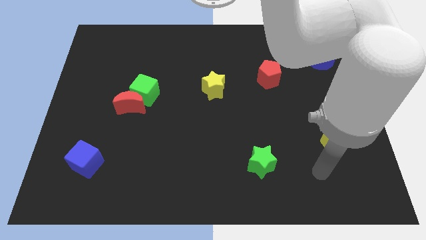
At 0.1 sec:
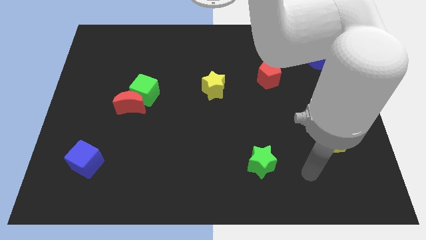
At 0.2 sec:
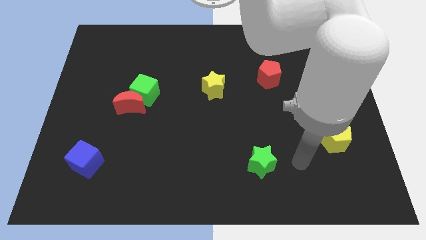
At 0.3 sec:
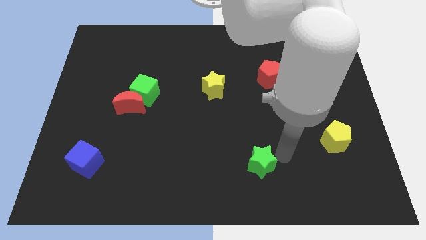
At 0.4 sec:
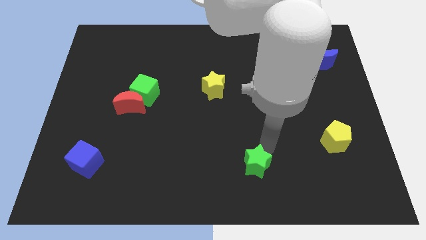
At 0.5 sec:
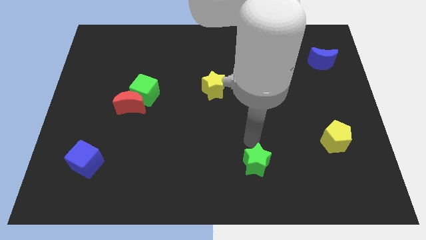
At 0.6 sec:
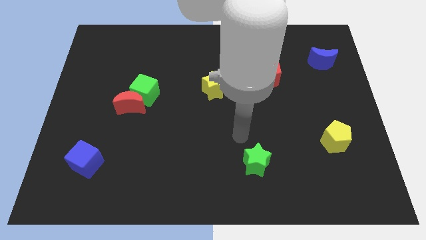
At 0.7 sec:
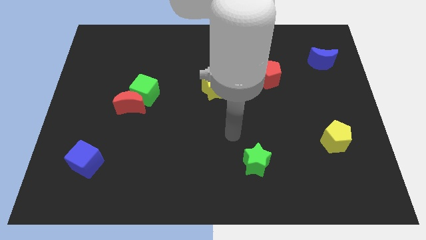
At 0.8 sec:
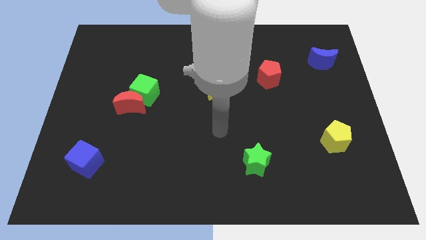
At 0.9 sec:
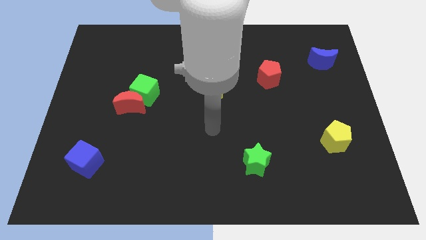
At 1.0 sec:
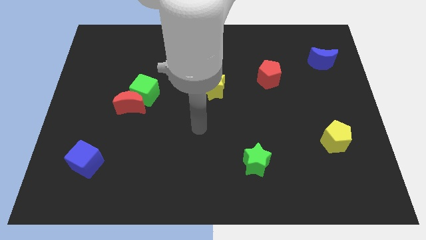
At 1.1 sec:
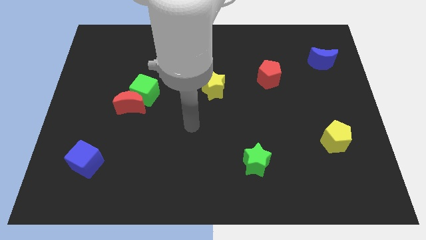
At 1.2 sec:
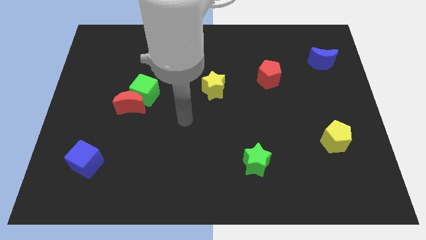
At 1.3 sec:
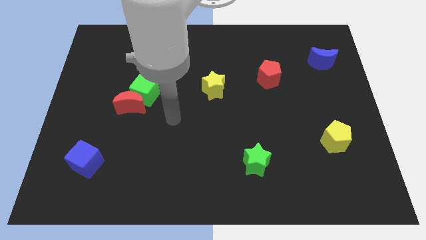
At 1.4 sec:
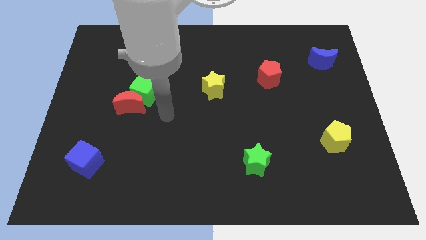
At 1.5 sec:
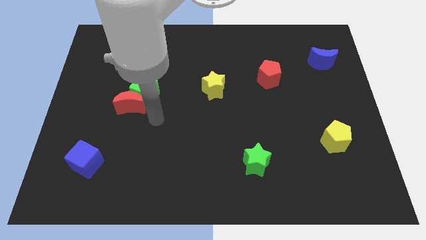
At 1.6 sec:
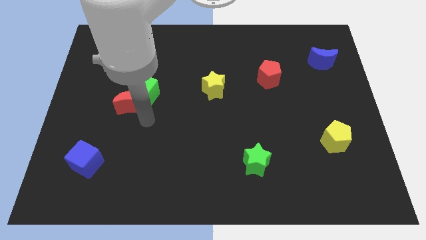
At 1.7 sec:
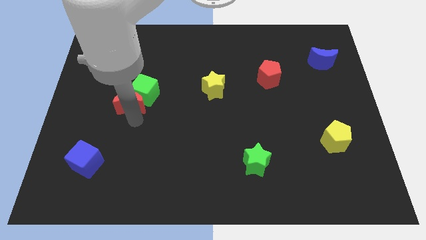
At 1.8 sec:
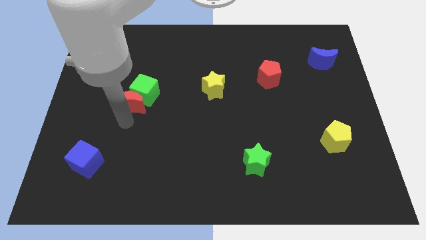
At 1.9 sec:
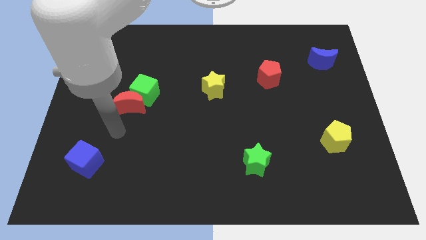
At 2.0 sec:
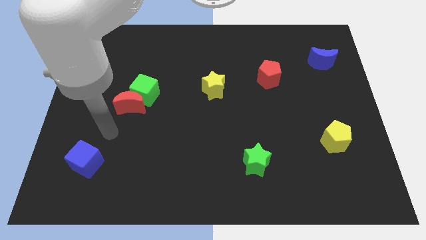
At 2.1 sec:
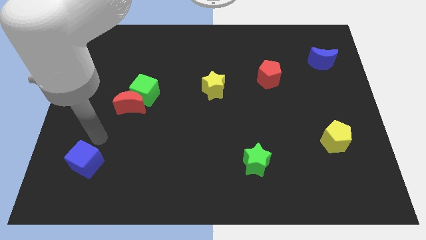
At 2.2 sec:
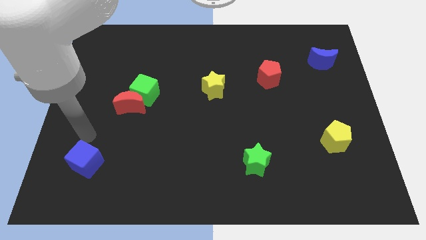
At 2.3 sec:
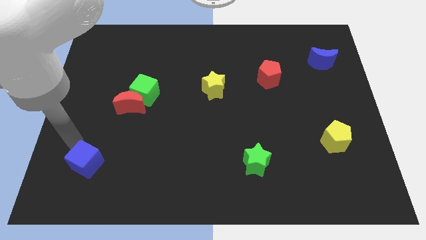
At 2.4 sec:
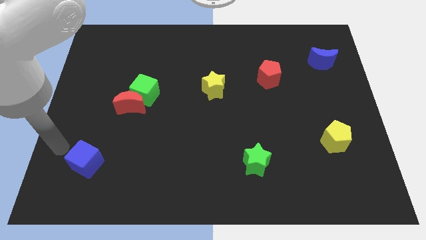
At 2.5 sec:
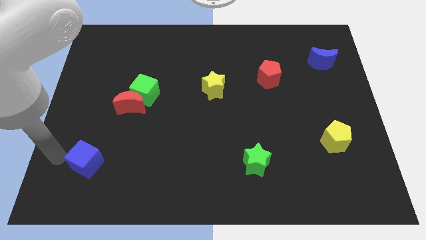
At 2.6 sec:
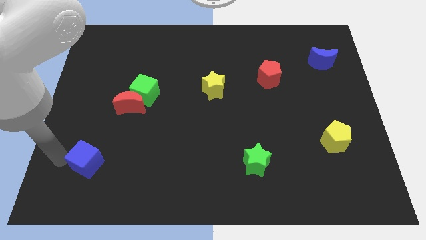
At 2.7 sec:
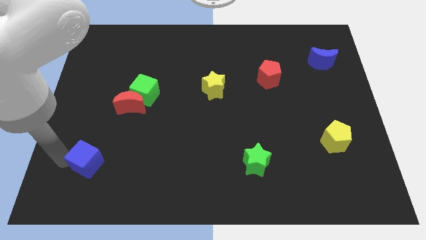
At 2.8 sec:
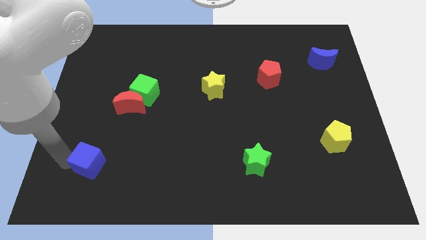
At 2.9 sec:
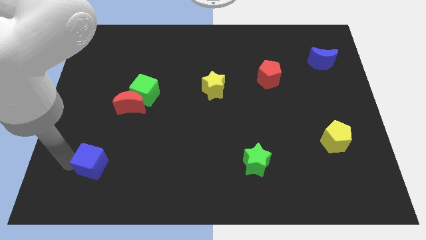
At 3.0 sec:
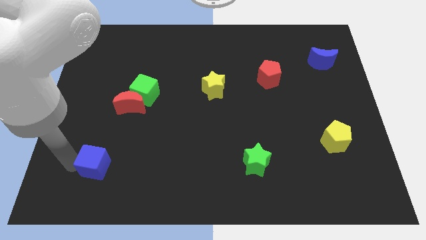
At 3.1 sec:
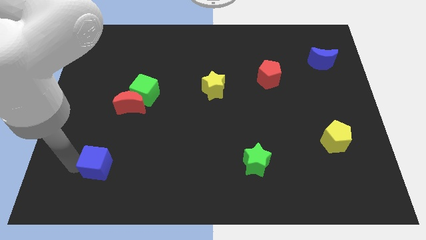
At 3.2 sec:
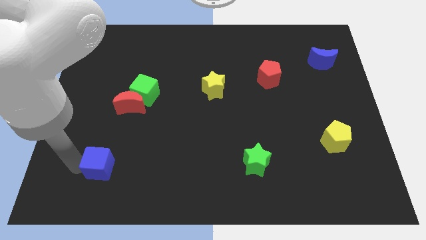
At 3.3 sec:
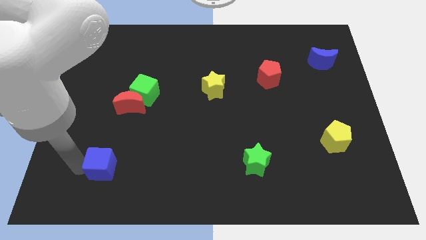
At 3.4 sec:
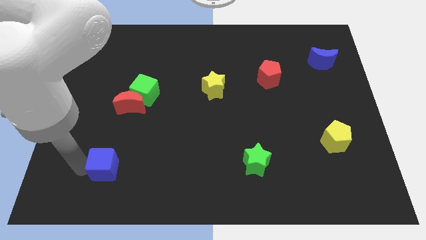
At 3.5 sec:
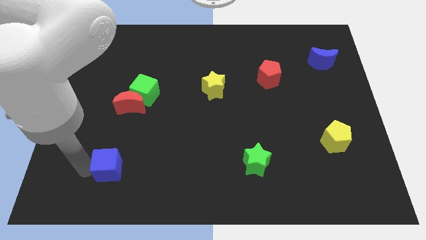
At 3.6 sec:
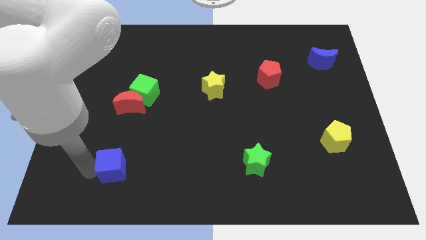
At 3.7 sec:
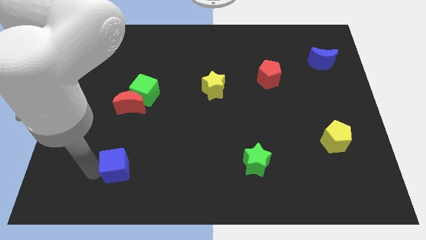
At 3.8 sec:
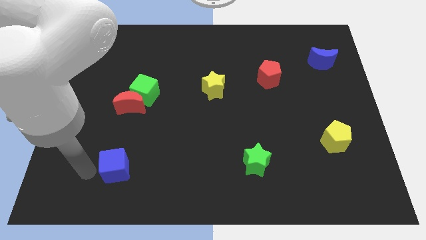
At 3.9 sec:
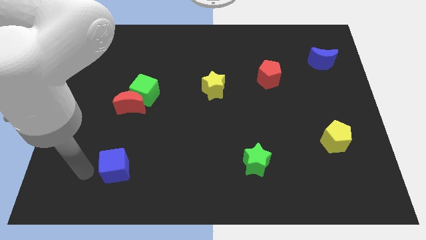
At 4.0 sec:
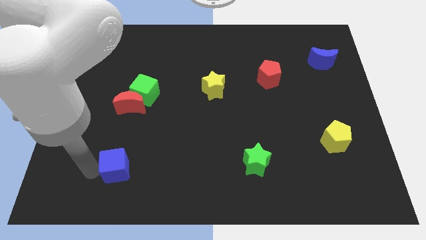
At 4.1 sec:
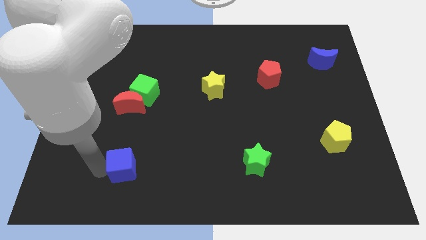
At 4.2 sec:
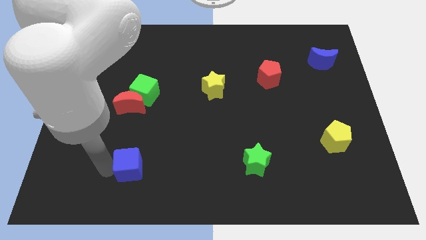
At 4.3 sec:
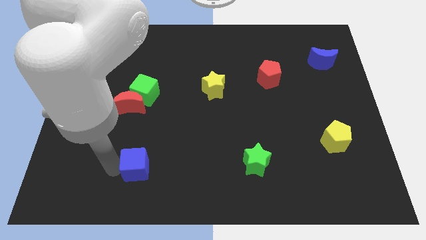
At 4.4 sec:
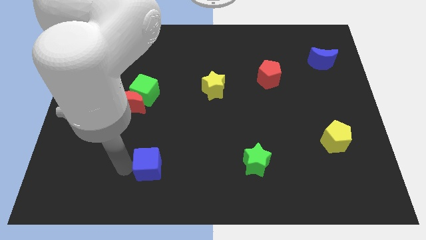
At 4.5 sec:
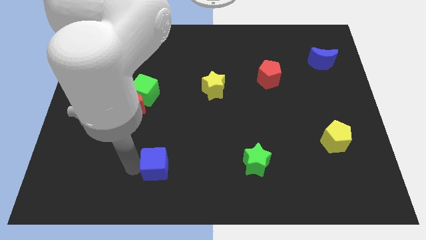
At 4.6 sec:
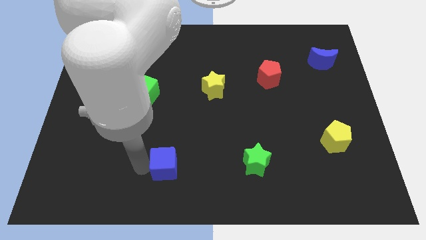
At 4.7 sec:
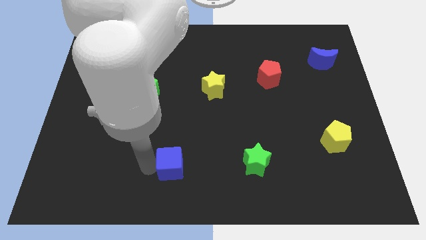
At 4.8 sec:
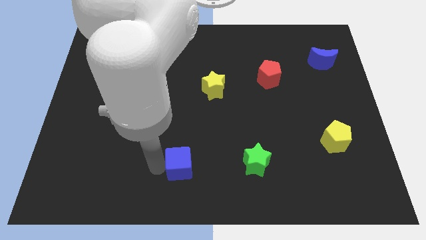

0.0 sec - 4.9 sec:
slide the blue cube right

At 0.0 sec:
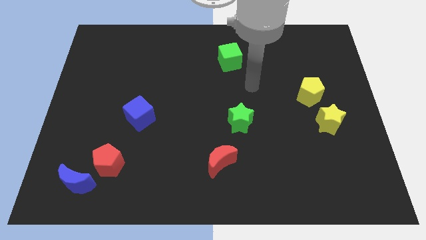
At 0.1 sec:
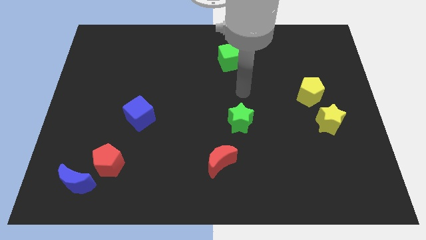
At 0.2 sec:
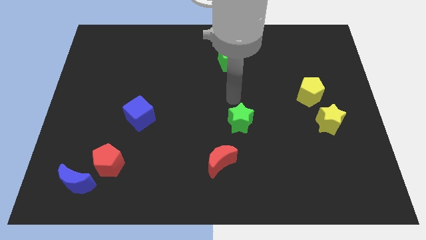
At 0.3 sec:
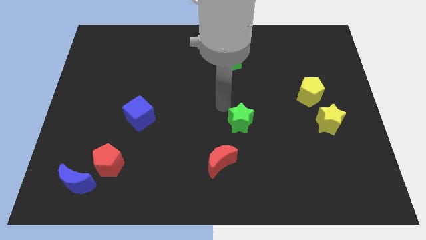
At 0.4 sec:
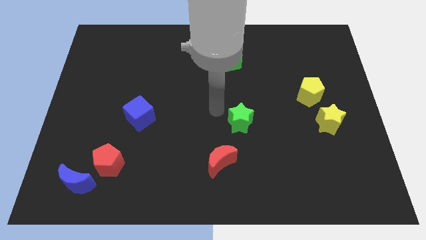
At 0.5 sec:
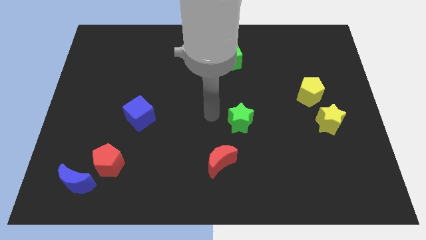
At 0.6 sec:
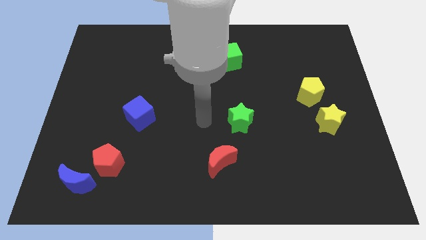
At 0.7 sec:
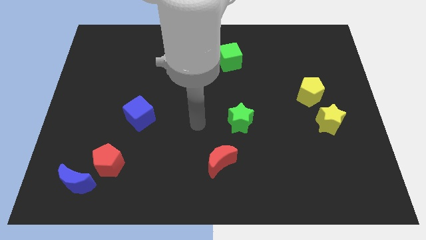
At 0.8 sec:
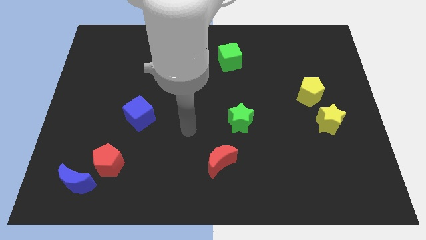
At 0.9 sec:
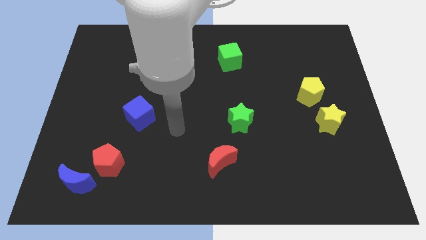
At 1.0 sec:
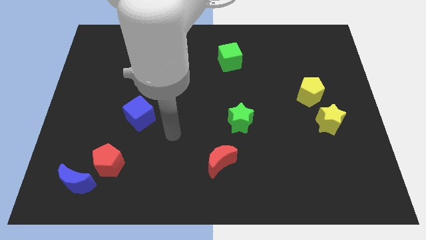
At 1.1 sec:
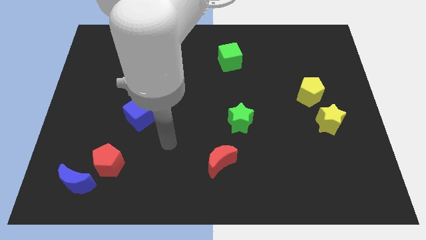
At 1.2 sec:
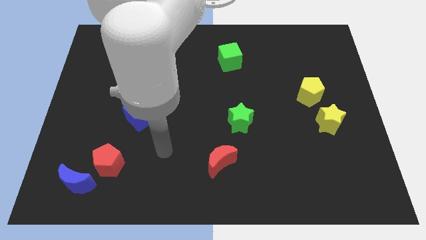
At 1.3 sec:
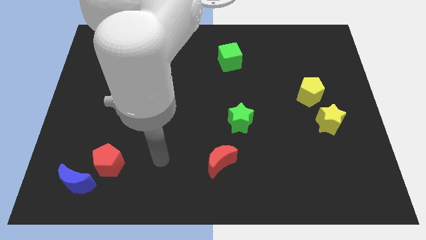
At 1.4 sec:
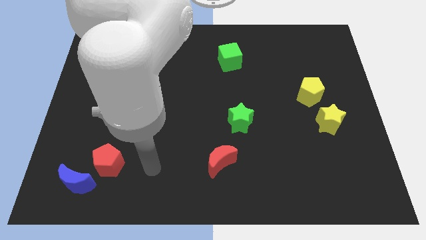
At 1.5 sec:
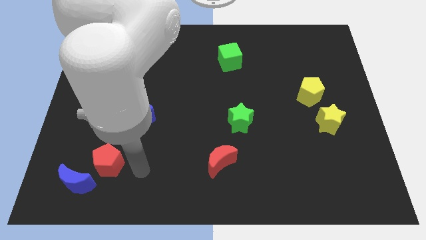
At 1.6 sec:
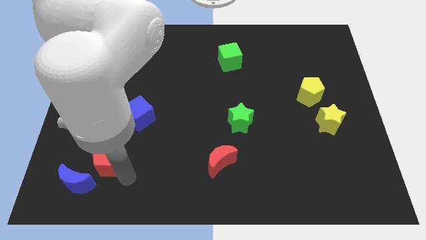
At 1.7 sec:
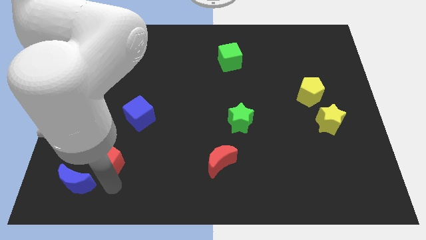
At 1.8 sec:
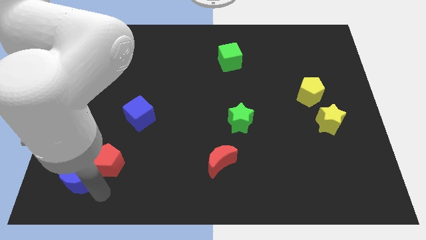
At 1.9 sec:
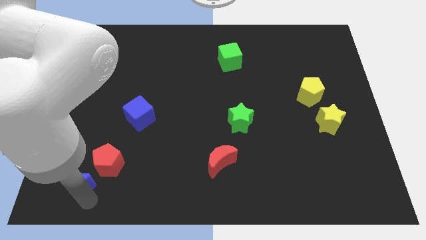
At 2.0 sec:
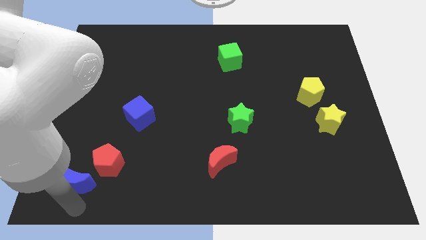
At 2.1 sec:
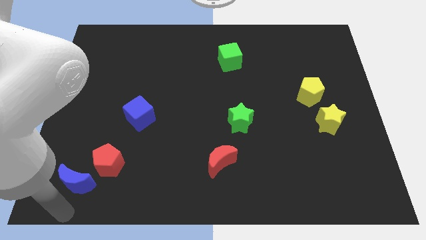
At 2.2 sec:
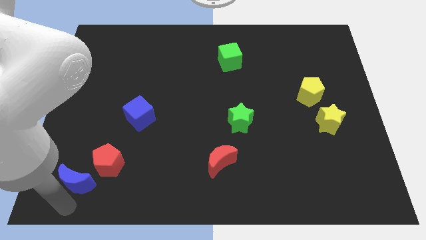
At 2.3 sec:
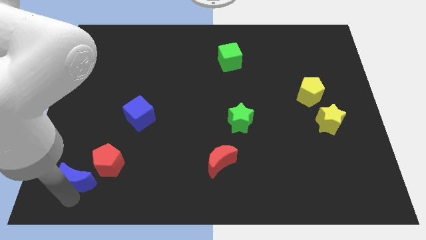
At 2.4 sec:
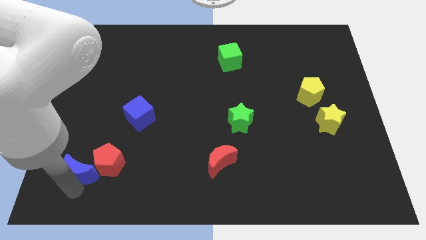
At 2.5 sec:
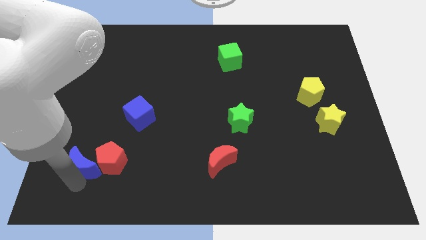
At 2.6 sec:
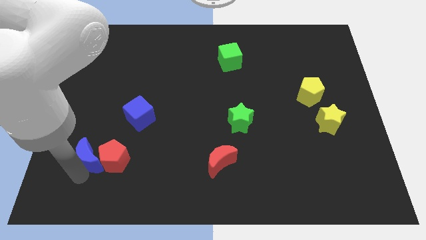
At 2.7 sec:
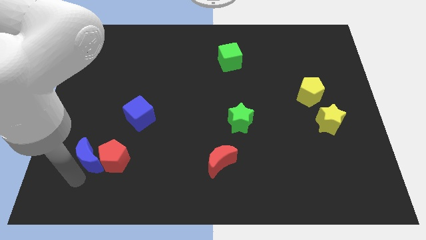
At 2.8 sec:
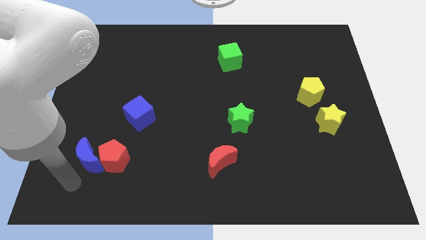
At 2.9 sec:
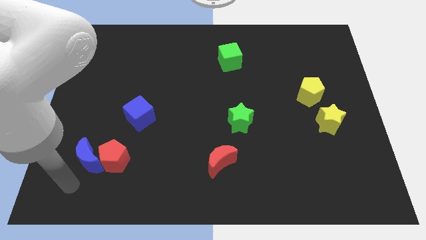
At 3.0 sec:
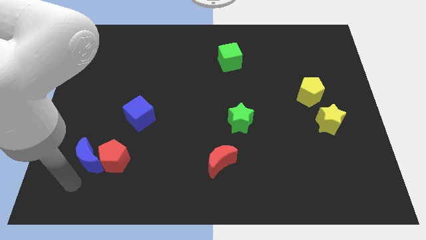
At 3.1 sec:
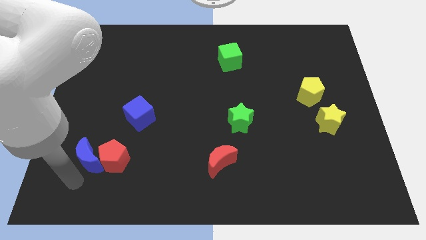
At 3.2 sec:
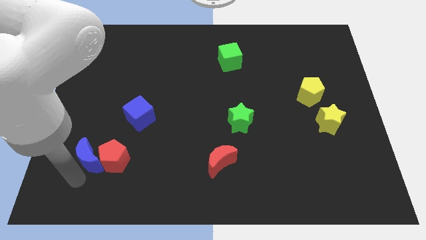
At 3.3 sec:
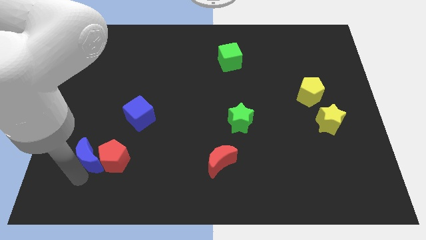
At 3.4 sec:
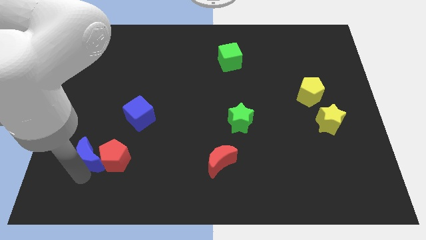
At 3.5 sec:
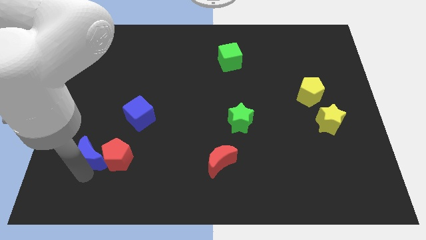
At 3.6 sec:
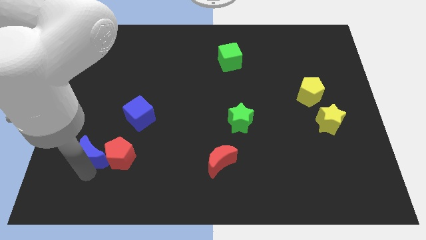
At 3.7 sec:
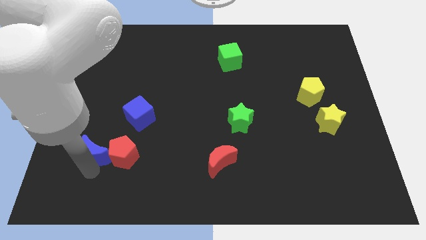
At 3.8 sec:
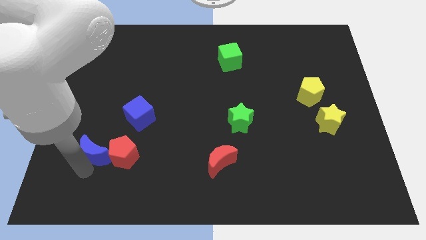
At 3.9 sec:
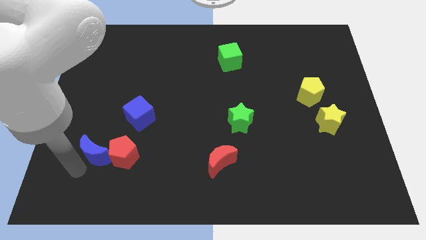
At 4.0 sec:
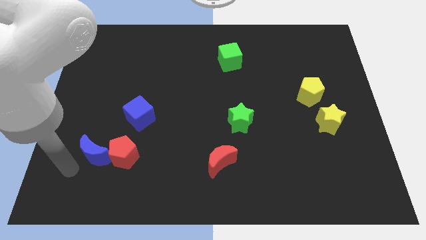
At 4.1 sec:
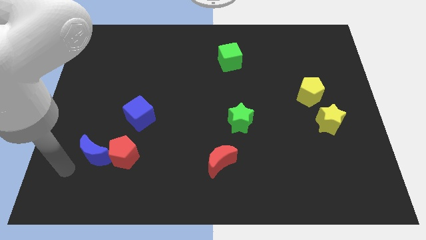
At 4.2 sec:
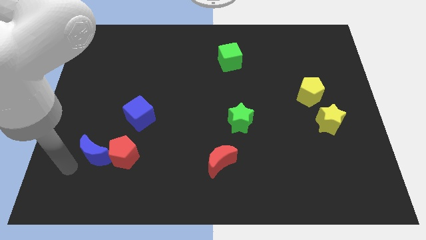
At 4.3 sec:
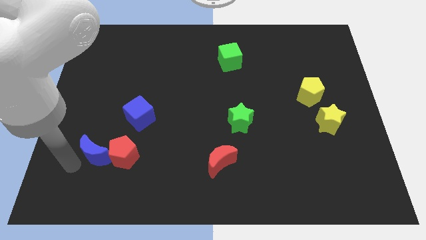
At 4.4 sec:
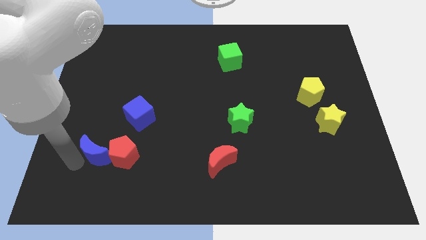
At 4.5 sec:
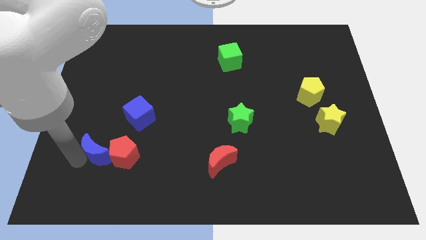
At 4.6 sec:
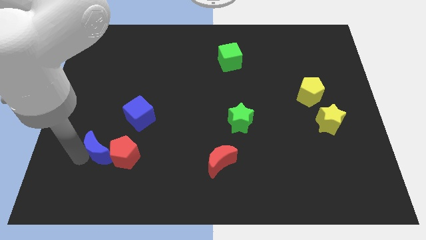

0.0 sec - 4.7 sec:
slightly slide the blue moon up and to the right diagonally
